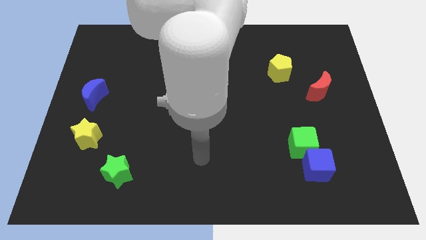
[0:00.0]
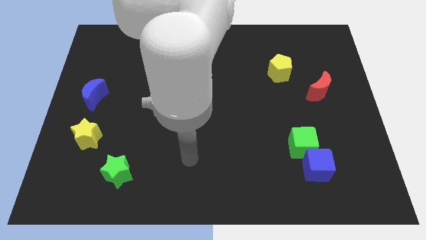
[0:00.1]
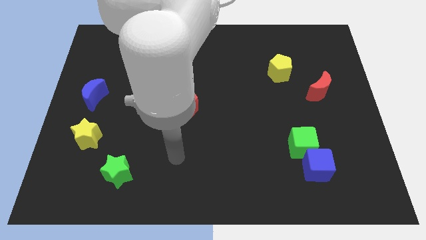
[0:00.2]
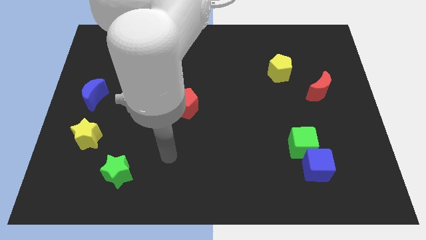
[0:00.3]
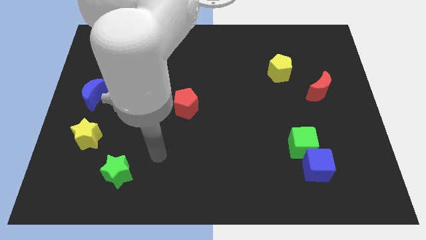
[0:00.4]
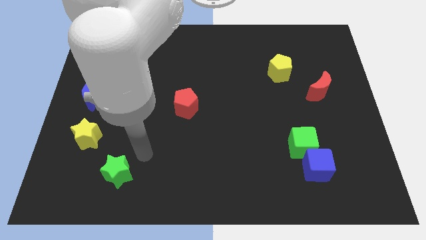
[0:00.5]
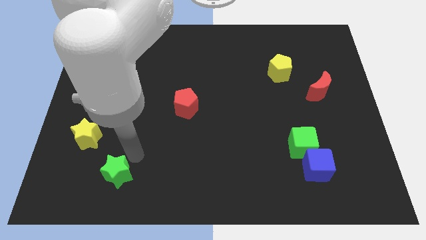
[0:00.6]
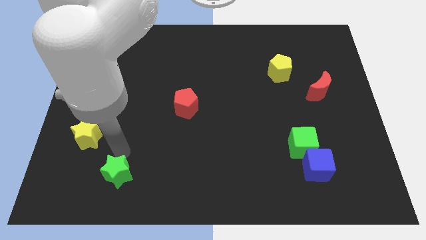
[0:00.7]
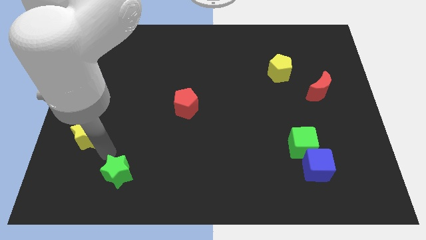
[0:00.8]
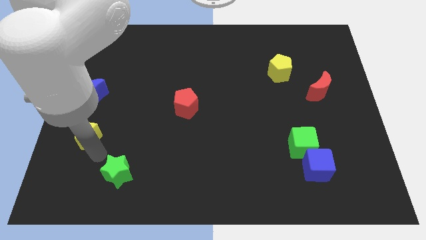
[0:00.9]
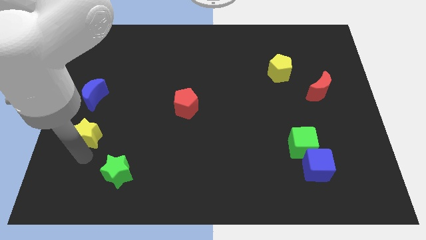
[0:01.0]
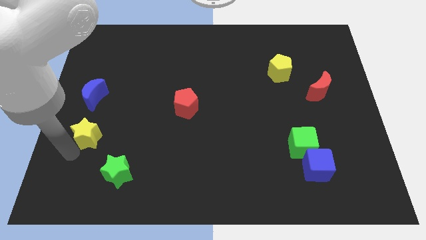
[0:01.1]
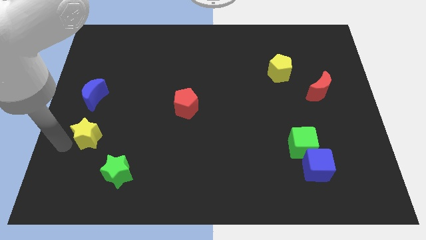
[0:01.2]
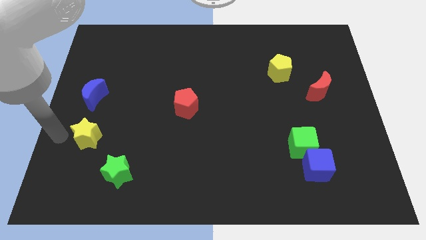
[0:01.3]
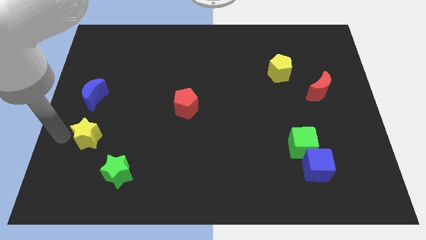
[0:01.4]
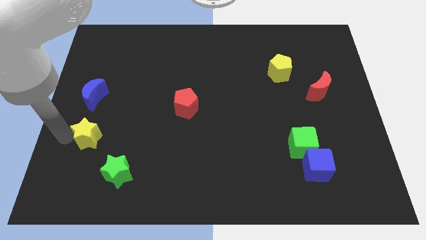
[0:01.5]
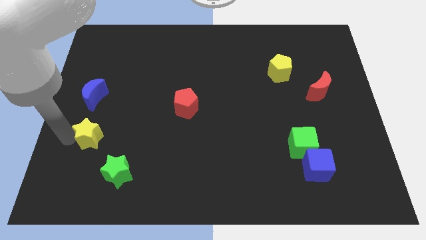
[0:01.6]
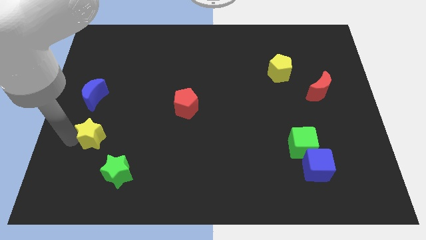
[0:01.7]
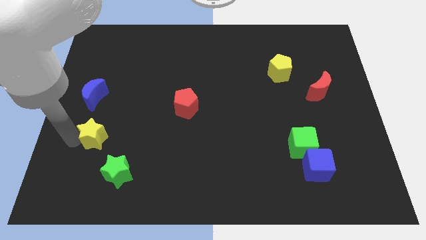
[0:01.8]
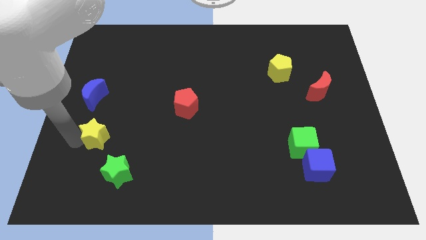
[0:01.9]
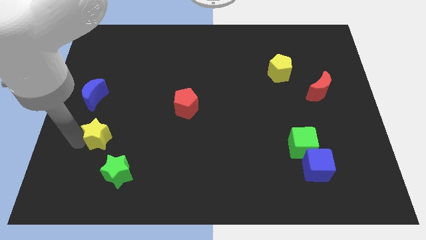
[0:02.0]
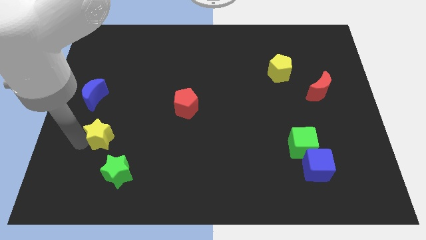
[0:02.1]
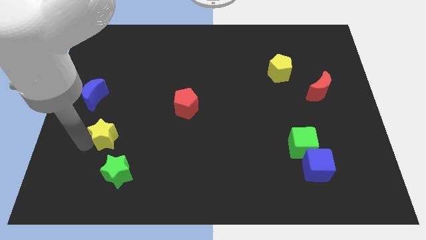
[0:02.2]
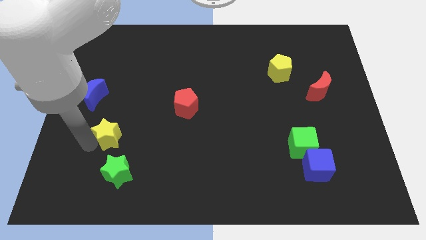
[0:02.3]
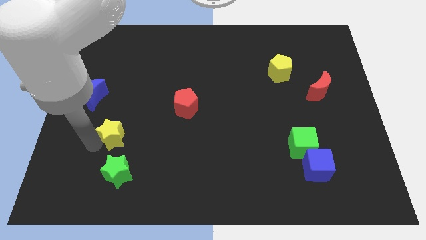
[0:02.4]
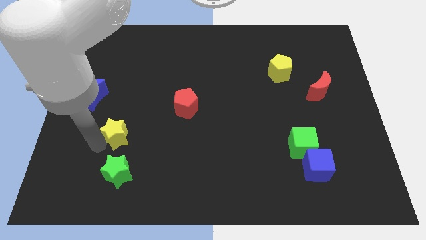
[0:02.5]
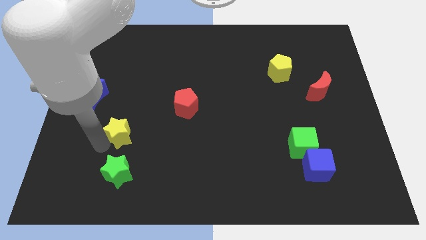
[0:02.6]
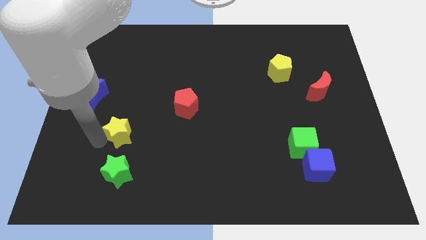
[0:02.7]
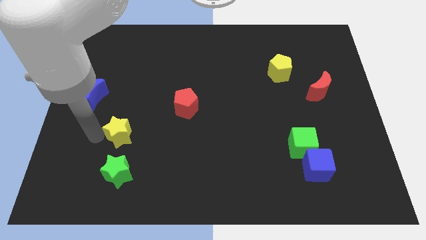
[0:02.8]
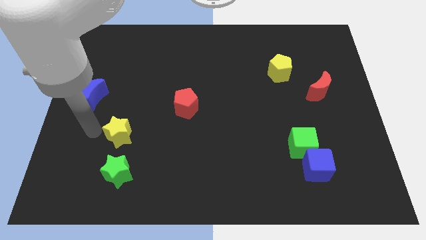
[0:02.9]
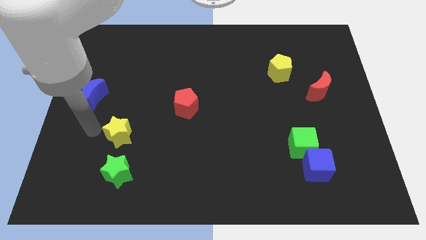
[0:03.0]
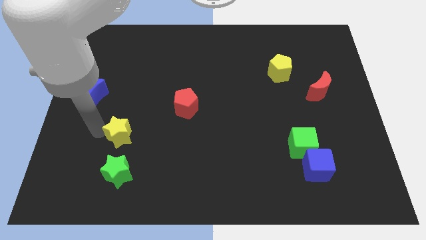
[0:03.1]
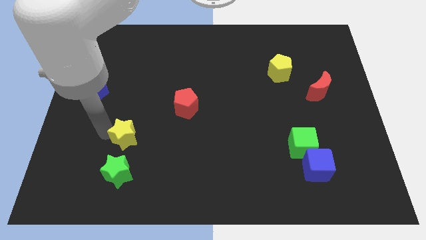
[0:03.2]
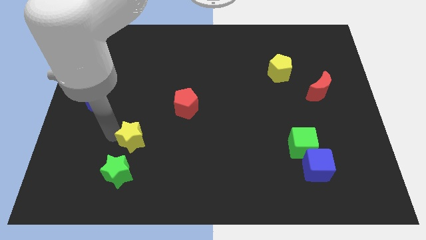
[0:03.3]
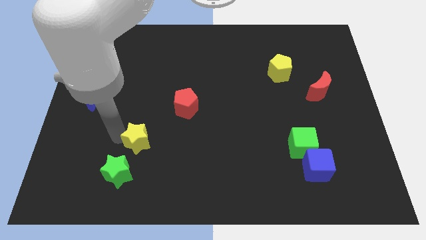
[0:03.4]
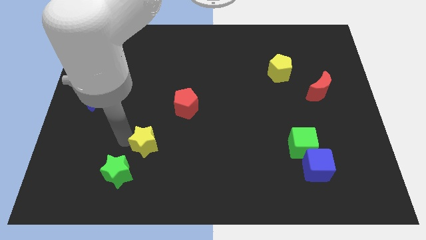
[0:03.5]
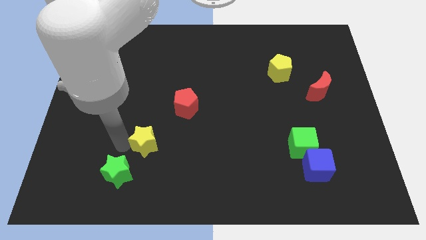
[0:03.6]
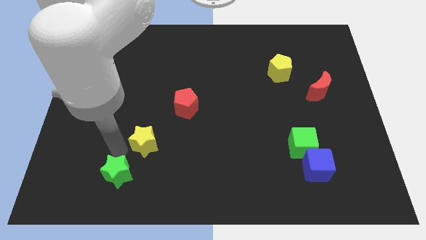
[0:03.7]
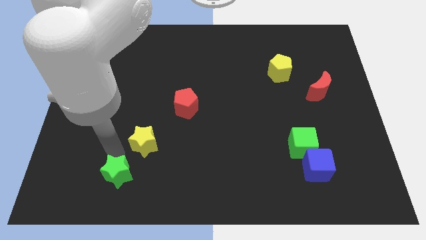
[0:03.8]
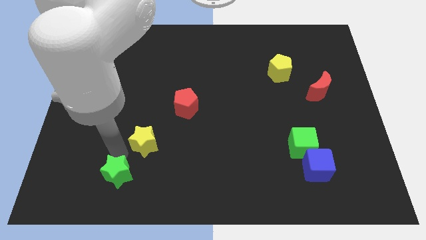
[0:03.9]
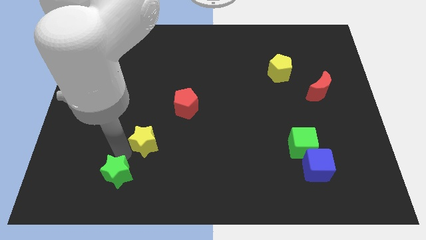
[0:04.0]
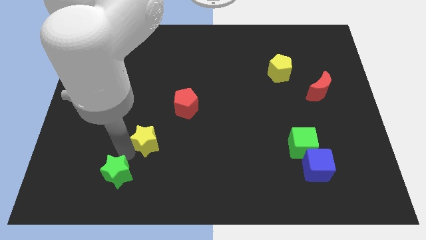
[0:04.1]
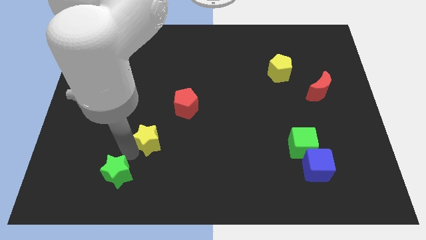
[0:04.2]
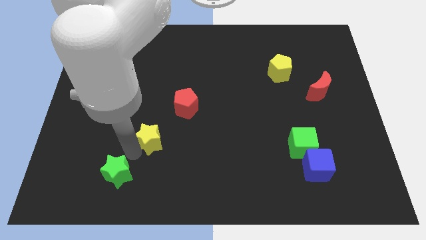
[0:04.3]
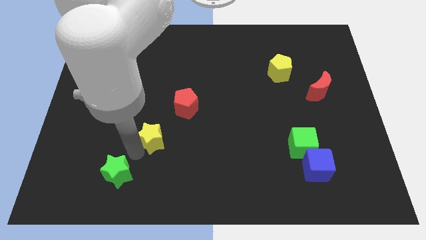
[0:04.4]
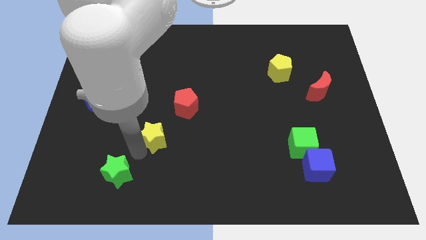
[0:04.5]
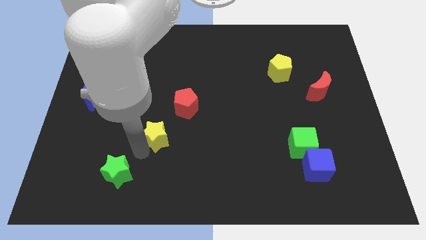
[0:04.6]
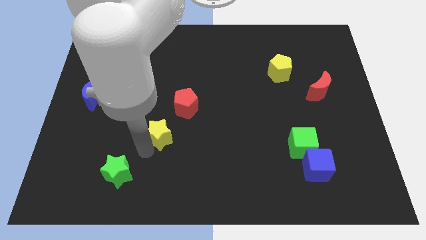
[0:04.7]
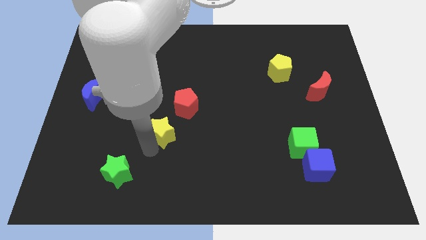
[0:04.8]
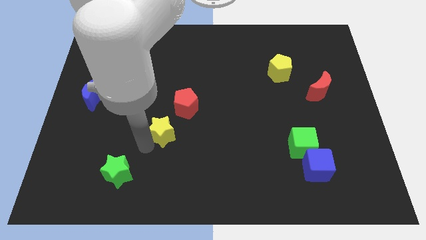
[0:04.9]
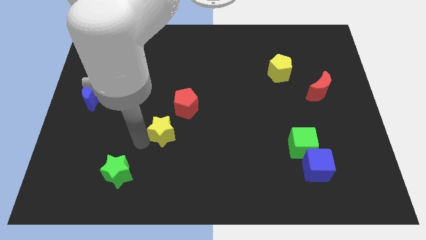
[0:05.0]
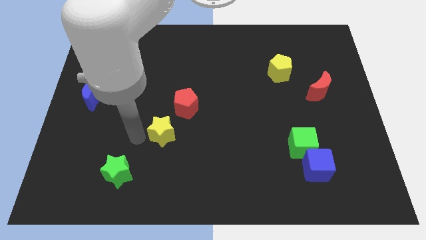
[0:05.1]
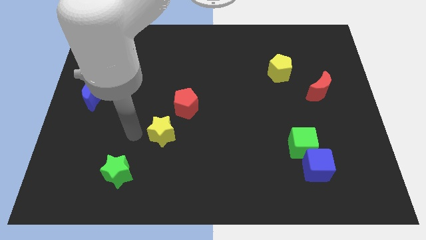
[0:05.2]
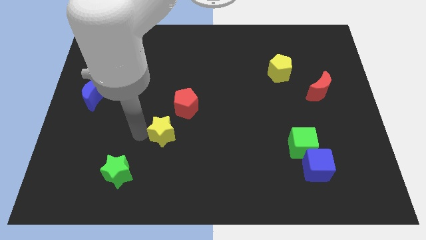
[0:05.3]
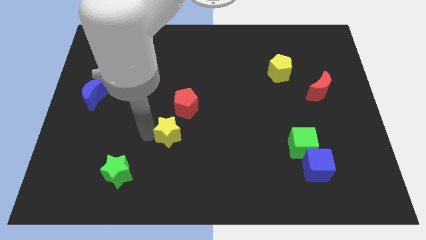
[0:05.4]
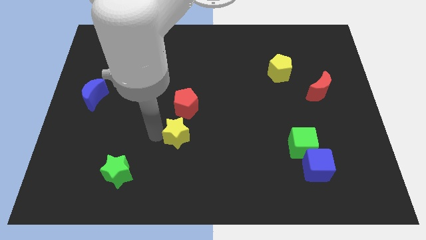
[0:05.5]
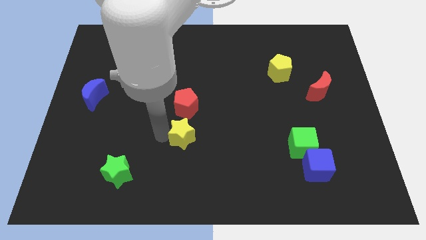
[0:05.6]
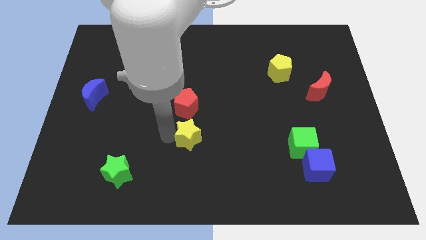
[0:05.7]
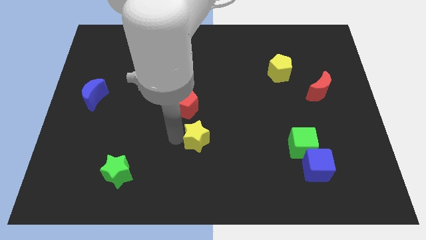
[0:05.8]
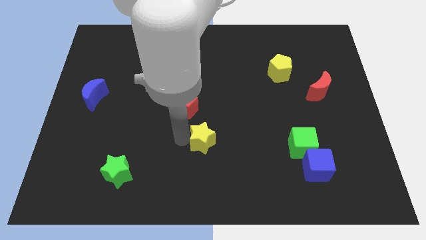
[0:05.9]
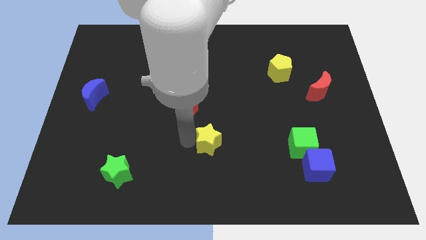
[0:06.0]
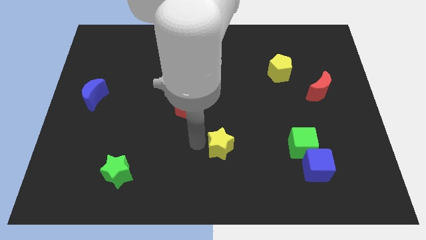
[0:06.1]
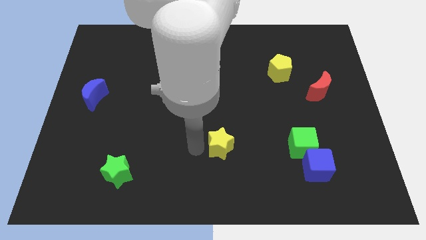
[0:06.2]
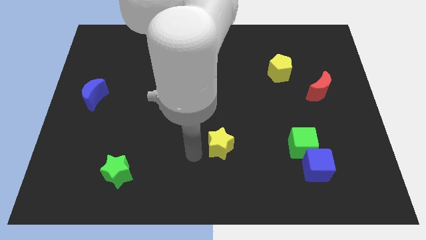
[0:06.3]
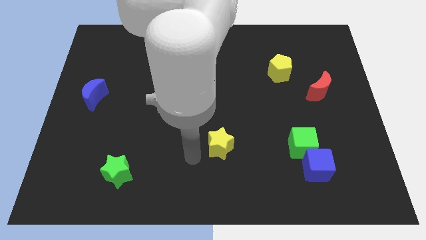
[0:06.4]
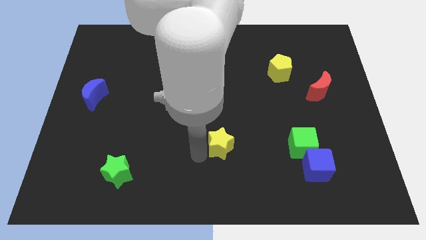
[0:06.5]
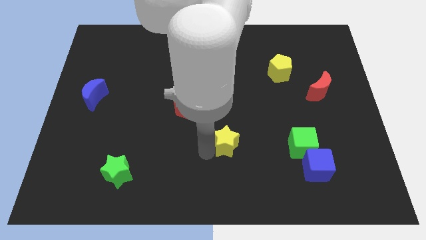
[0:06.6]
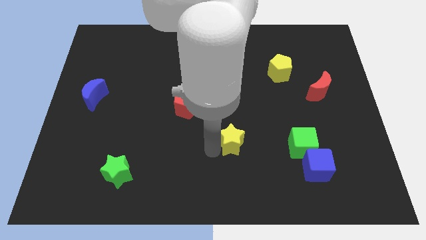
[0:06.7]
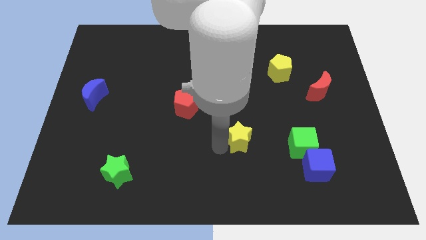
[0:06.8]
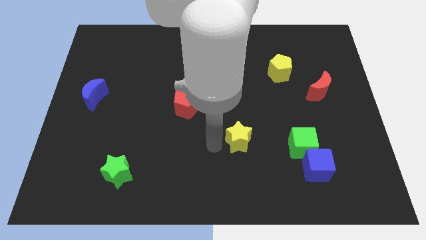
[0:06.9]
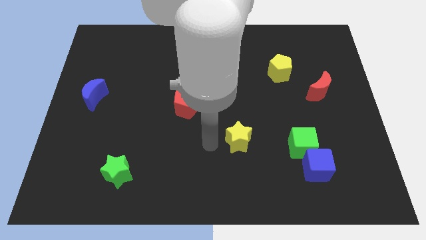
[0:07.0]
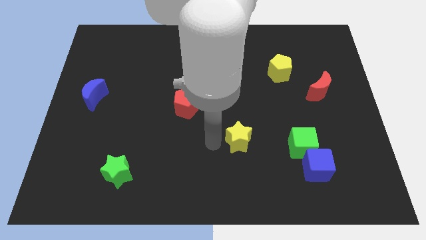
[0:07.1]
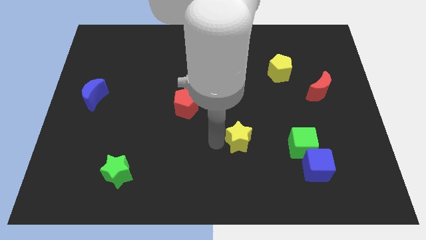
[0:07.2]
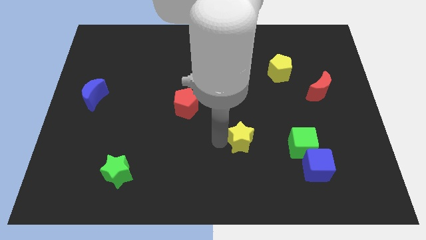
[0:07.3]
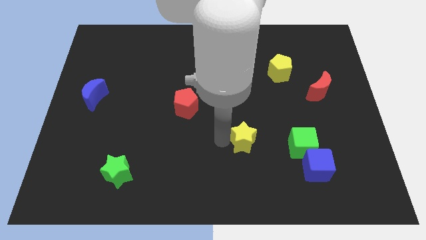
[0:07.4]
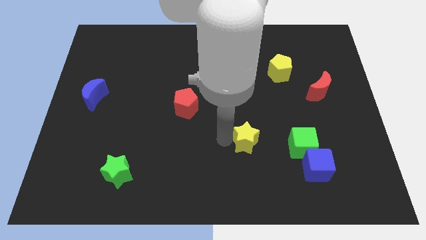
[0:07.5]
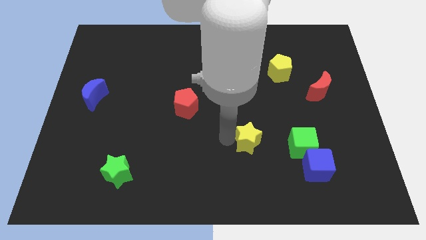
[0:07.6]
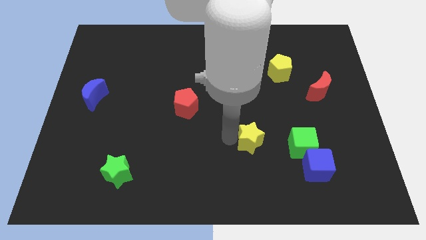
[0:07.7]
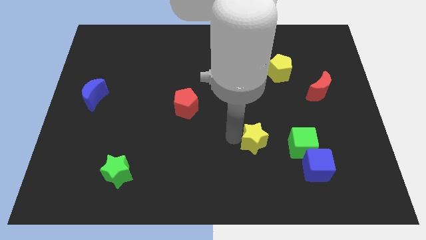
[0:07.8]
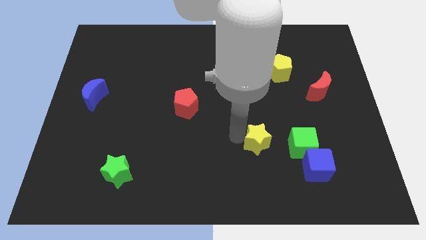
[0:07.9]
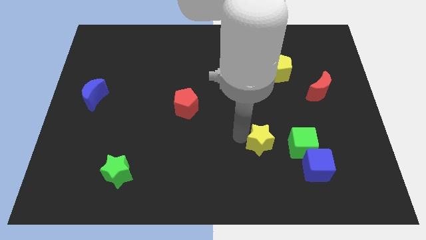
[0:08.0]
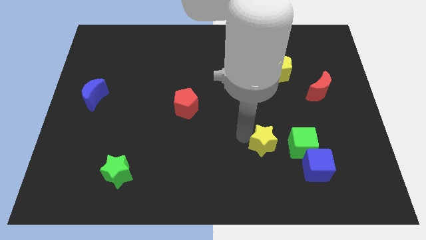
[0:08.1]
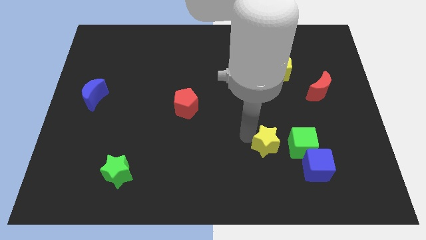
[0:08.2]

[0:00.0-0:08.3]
move the yellow star to the top left side of the blue cube
